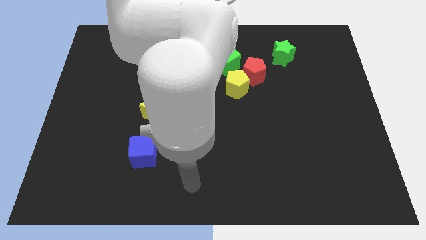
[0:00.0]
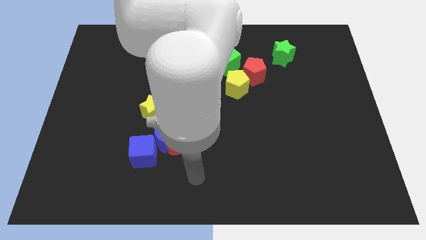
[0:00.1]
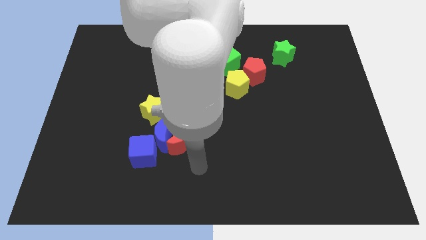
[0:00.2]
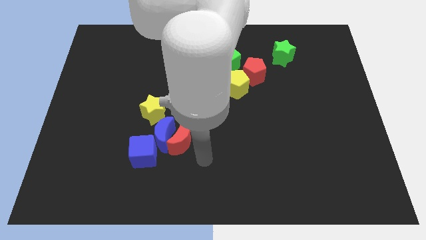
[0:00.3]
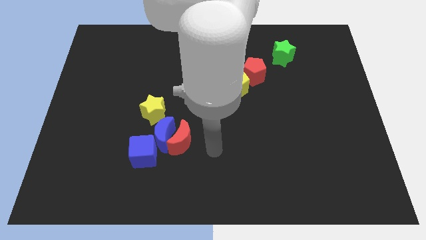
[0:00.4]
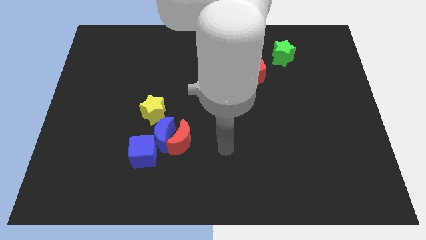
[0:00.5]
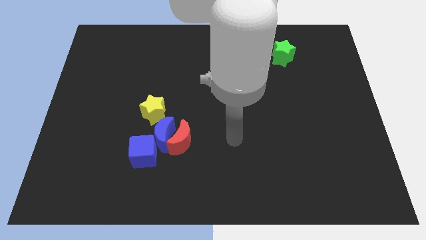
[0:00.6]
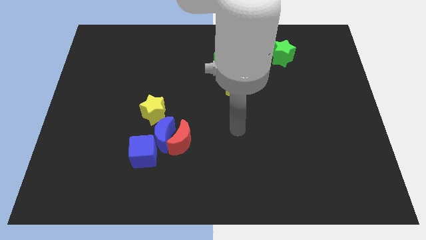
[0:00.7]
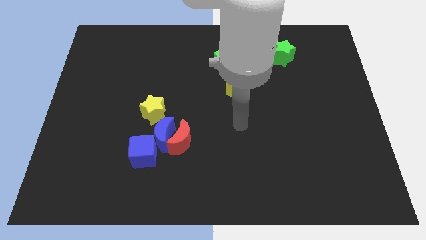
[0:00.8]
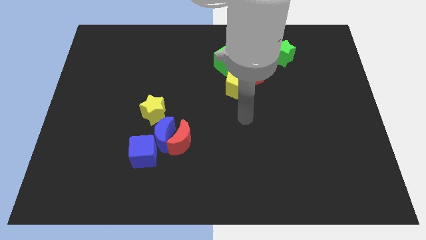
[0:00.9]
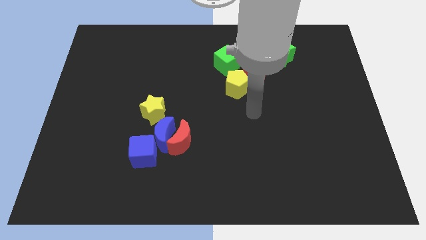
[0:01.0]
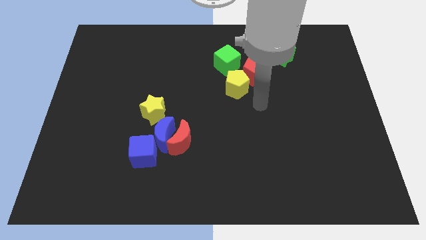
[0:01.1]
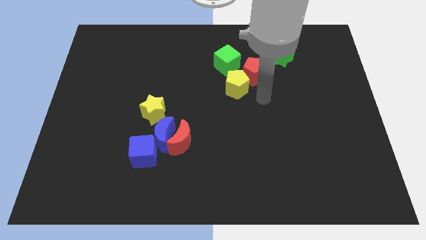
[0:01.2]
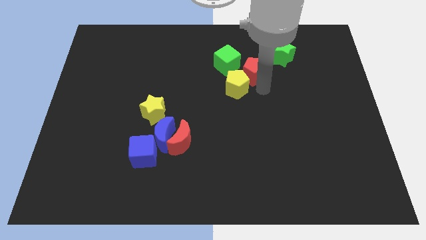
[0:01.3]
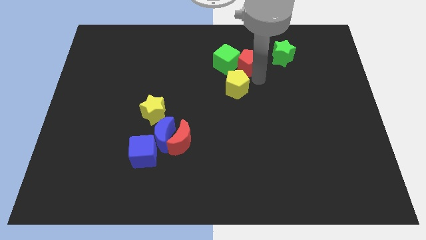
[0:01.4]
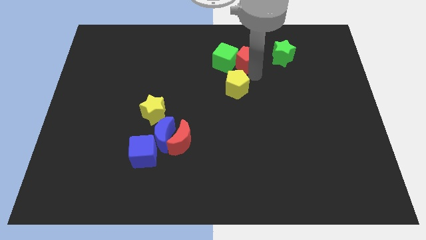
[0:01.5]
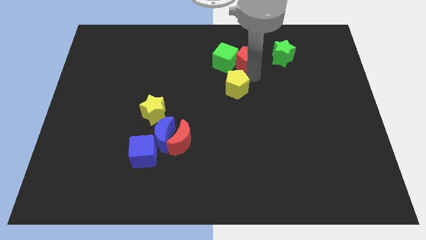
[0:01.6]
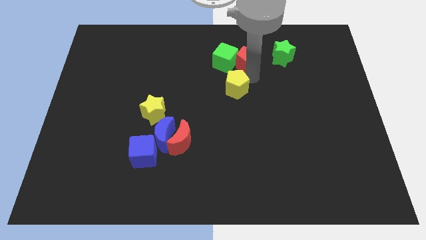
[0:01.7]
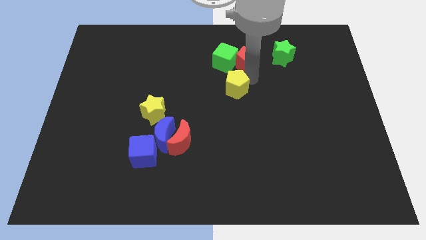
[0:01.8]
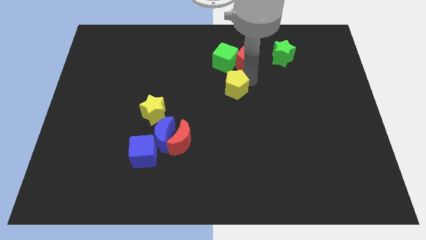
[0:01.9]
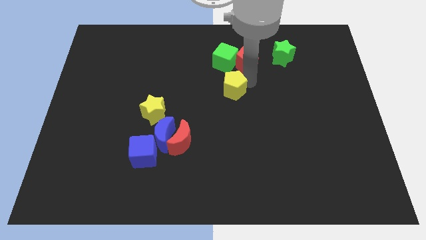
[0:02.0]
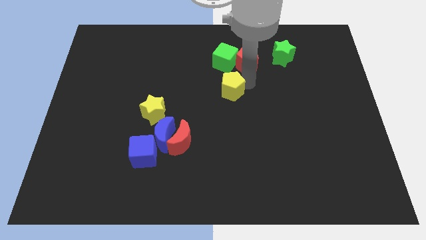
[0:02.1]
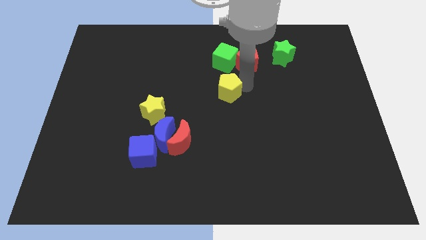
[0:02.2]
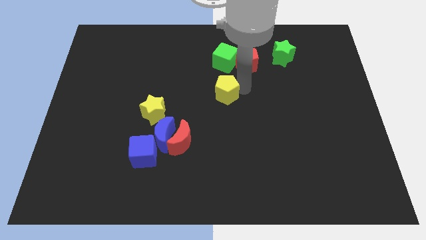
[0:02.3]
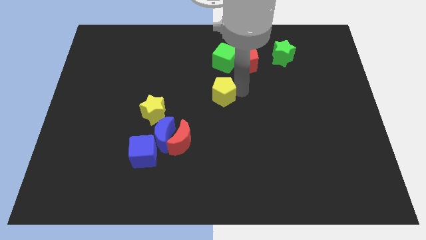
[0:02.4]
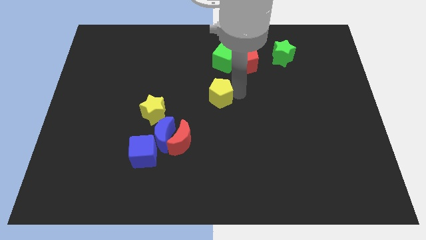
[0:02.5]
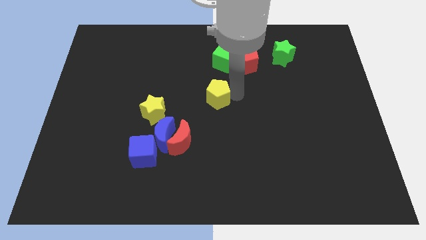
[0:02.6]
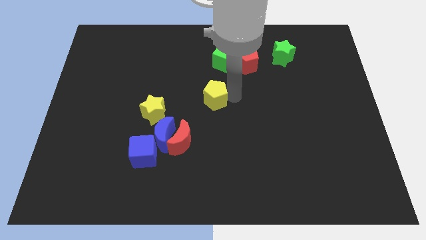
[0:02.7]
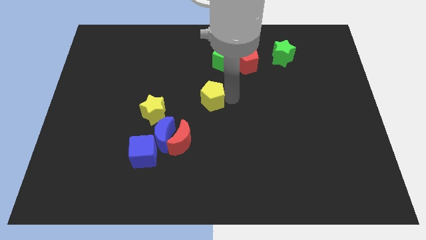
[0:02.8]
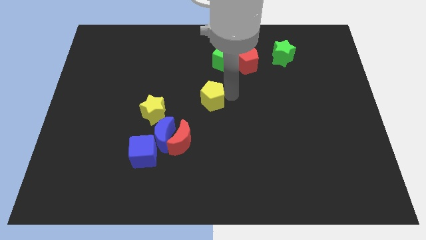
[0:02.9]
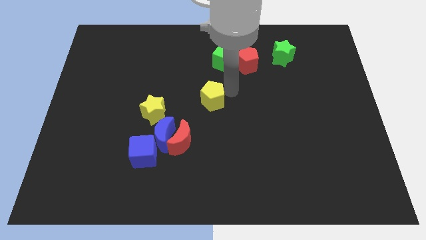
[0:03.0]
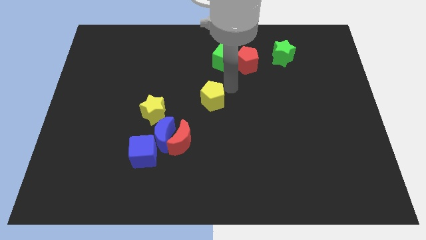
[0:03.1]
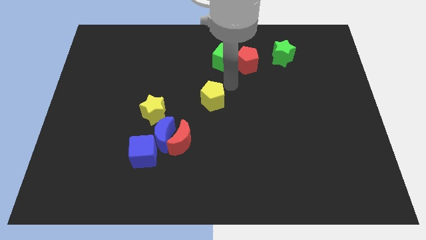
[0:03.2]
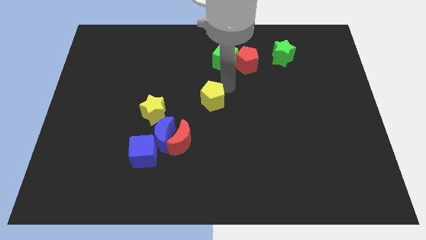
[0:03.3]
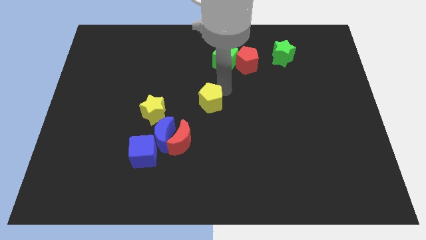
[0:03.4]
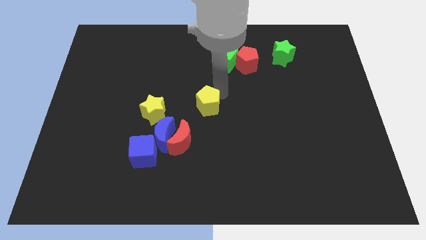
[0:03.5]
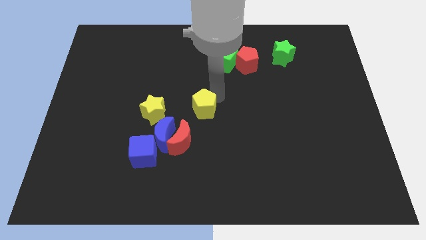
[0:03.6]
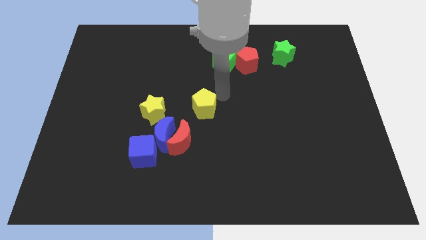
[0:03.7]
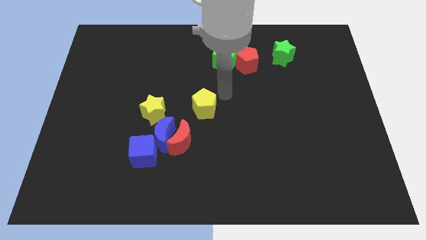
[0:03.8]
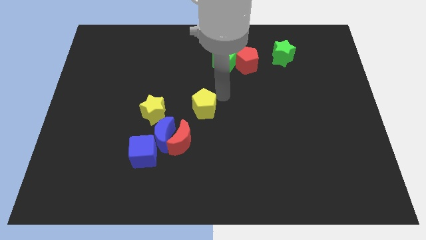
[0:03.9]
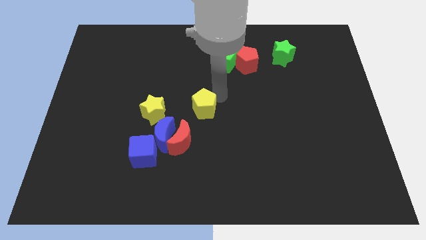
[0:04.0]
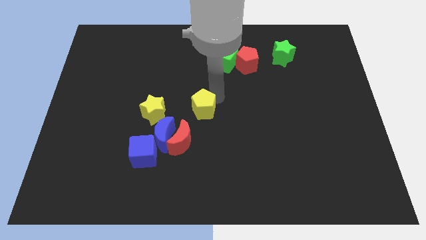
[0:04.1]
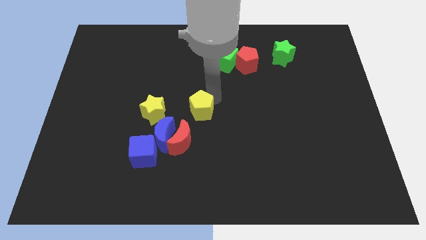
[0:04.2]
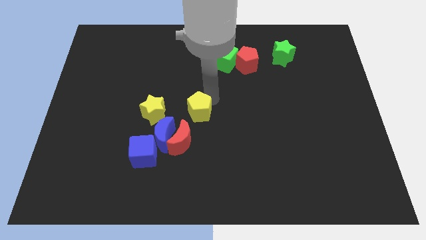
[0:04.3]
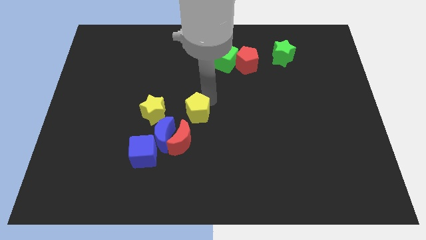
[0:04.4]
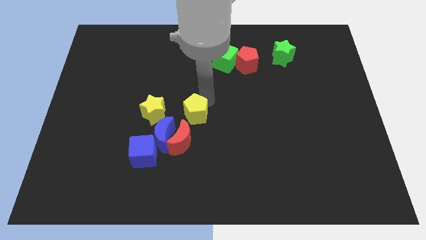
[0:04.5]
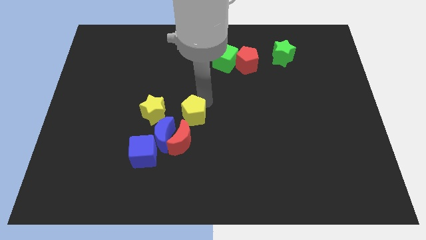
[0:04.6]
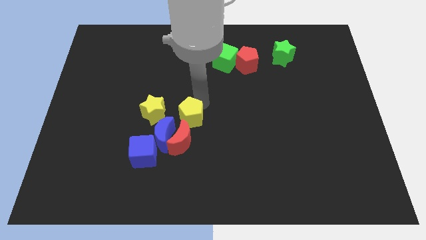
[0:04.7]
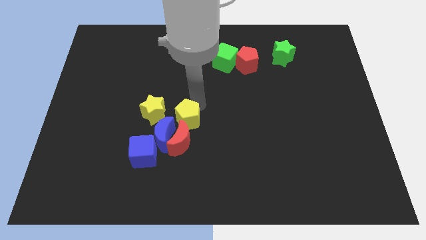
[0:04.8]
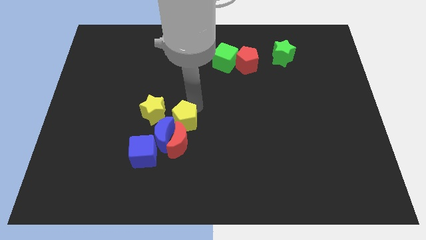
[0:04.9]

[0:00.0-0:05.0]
move the yellow pentagon close to the blue moon

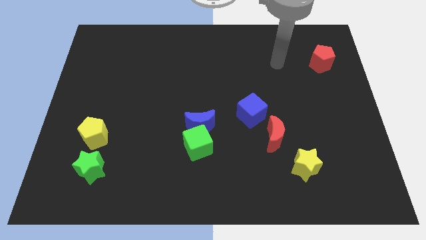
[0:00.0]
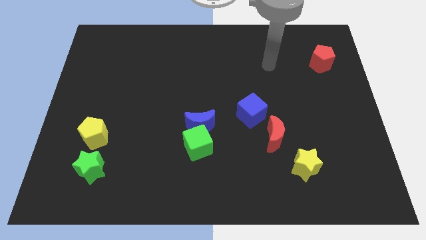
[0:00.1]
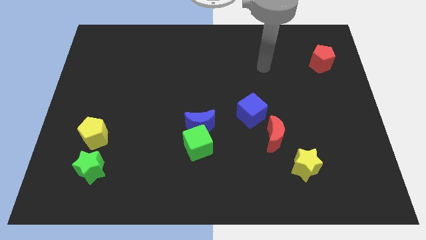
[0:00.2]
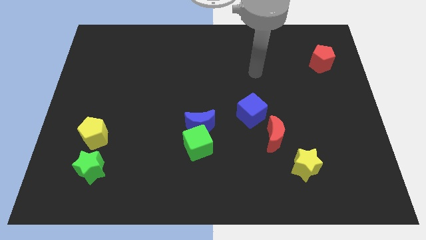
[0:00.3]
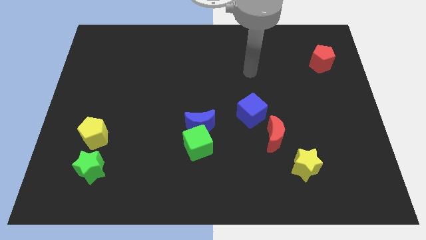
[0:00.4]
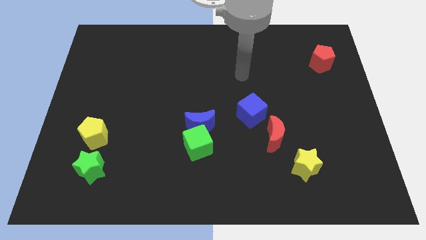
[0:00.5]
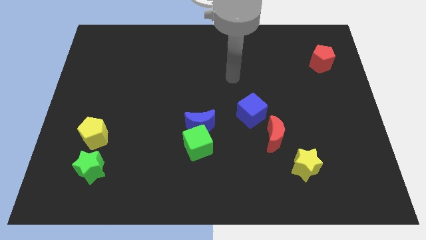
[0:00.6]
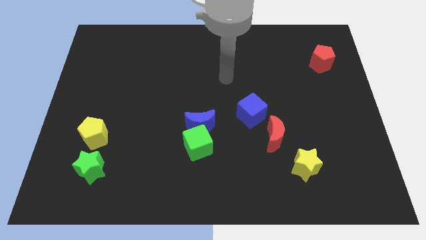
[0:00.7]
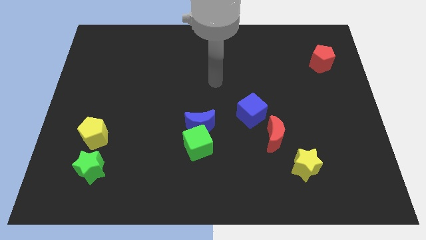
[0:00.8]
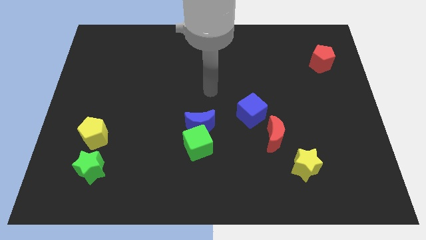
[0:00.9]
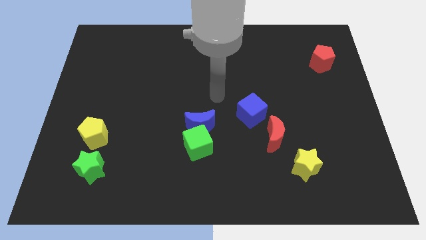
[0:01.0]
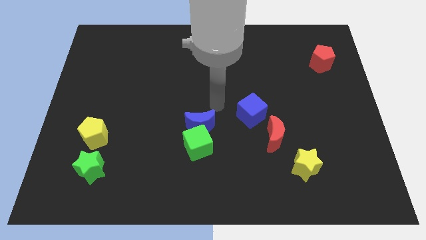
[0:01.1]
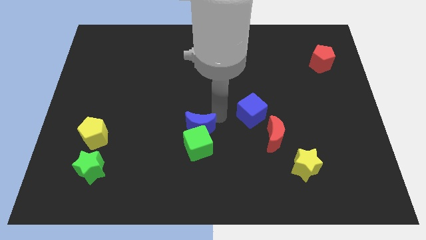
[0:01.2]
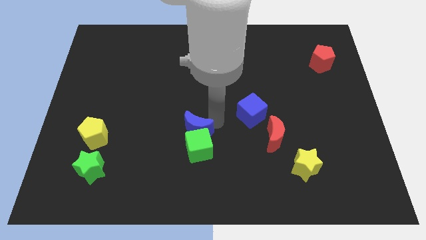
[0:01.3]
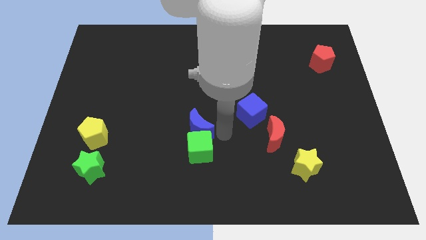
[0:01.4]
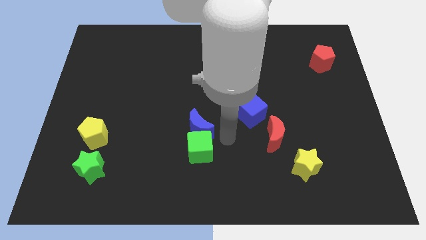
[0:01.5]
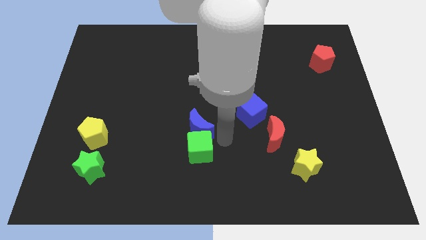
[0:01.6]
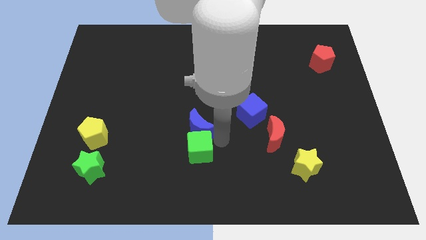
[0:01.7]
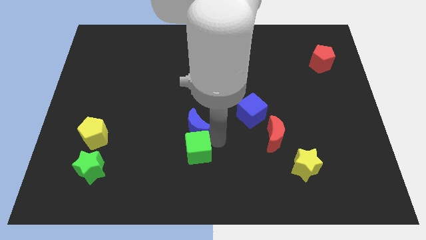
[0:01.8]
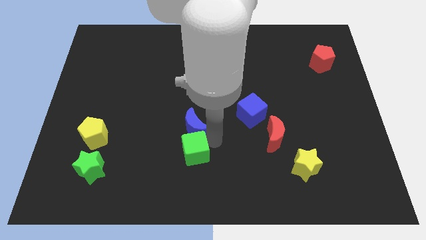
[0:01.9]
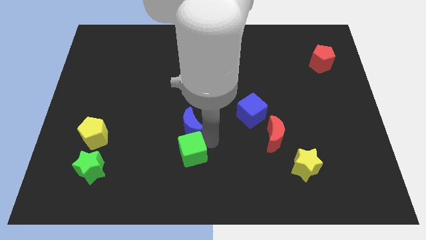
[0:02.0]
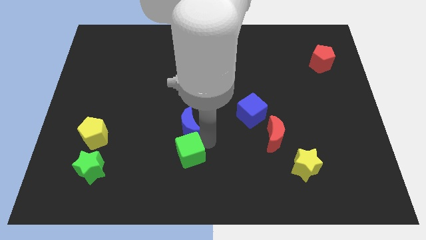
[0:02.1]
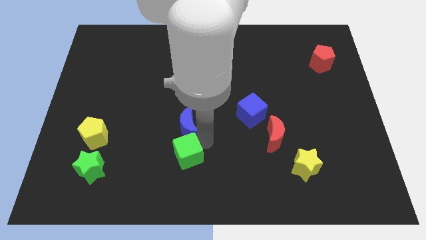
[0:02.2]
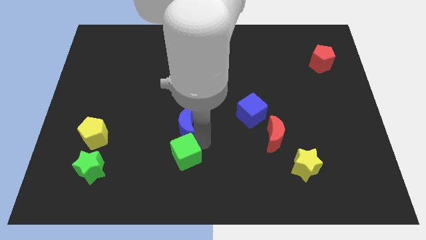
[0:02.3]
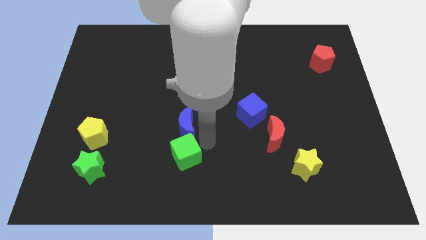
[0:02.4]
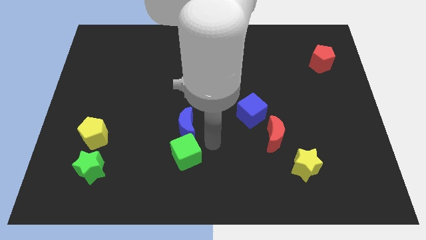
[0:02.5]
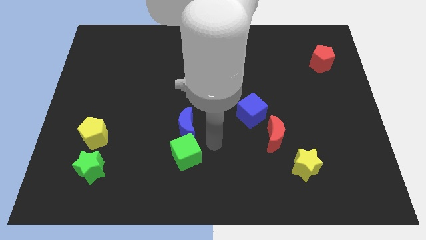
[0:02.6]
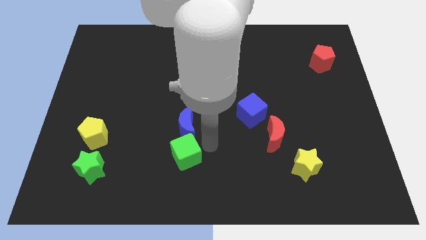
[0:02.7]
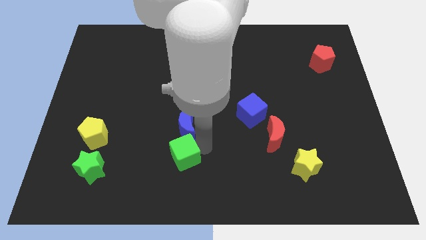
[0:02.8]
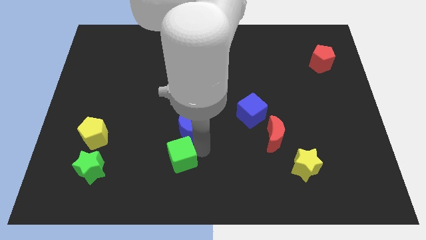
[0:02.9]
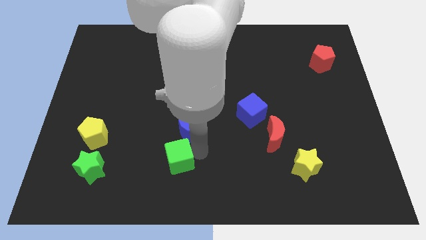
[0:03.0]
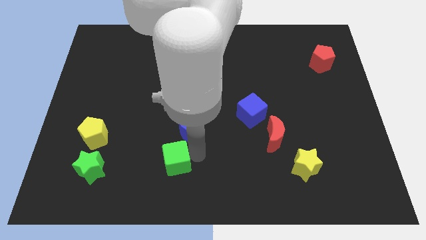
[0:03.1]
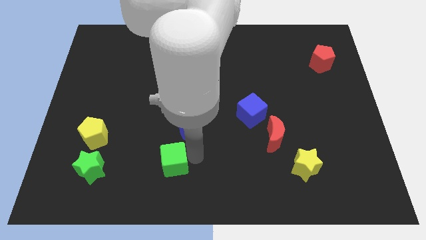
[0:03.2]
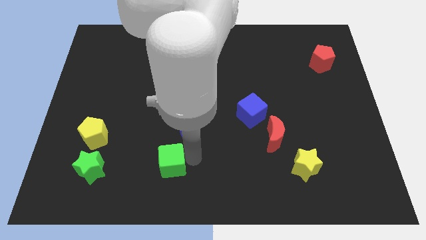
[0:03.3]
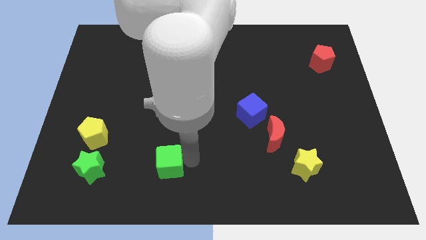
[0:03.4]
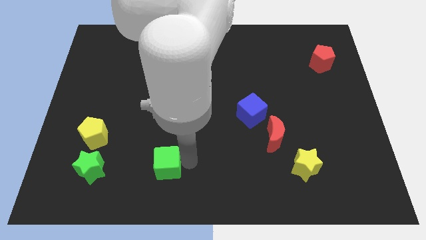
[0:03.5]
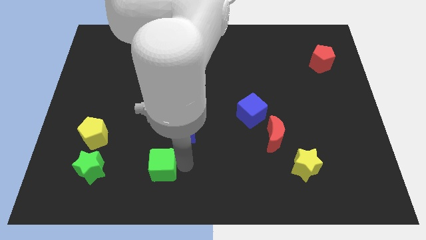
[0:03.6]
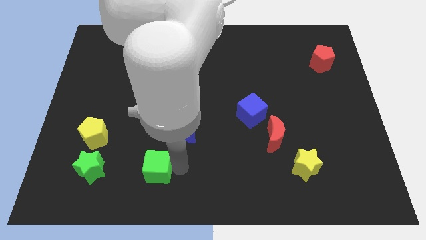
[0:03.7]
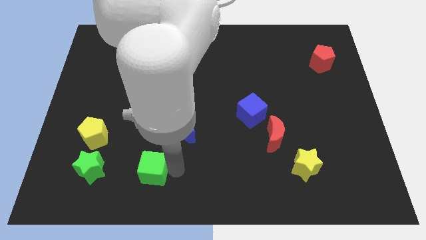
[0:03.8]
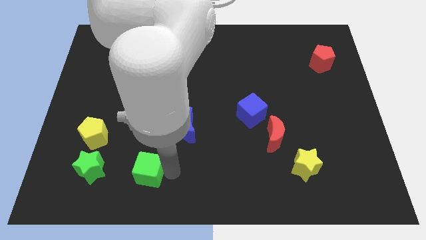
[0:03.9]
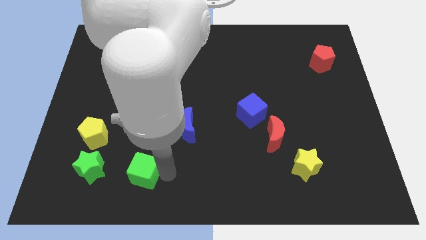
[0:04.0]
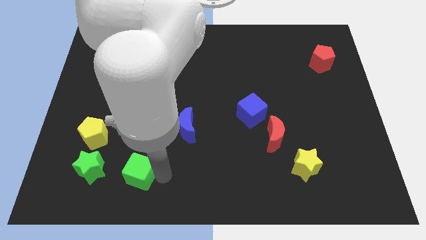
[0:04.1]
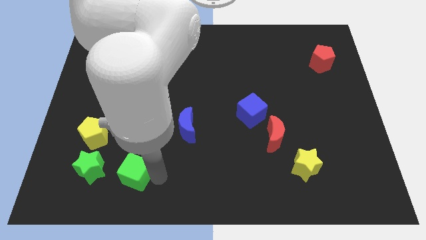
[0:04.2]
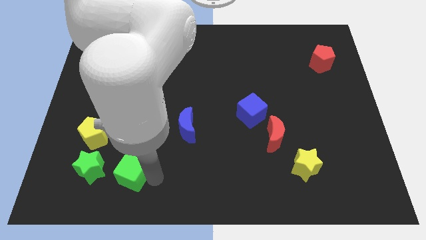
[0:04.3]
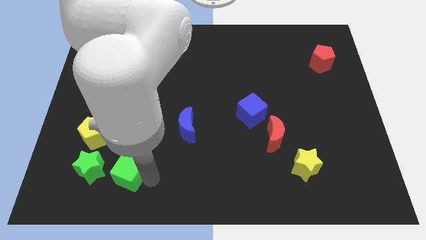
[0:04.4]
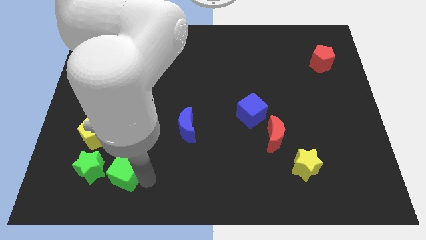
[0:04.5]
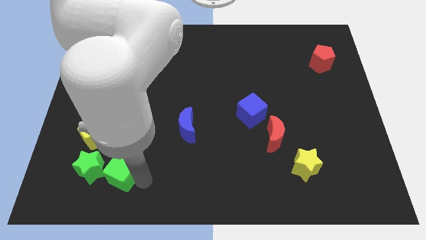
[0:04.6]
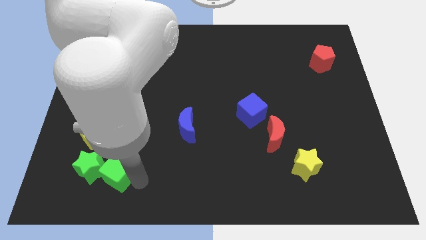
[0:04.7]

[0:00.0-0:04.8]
put the green cube next to the green star
